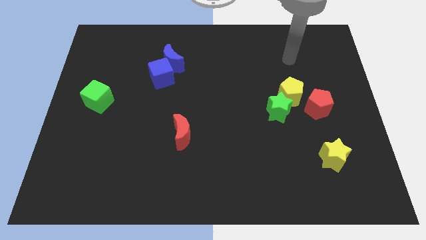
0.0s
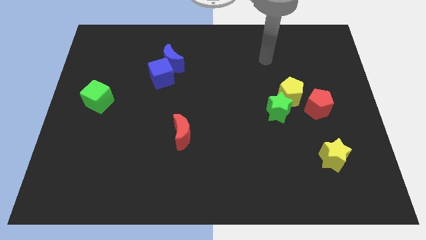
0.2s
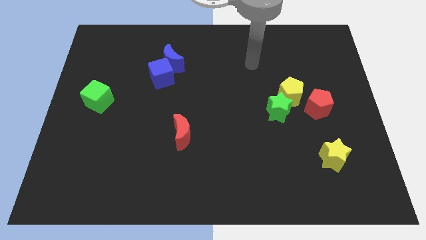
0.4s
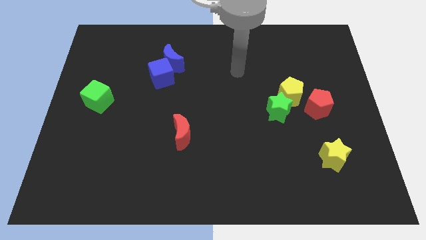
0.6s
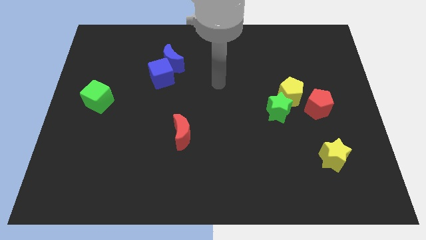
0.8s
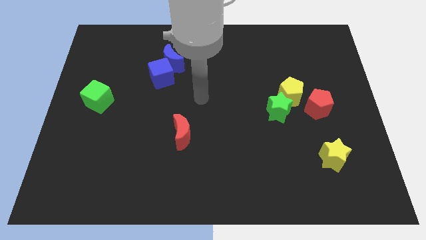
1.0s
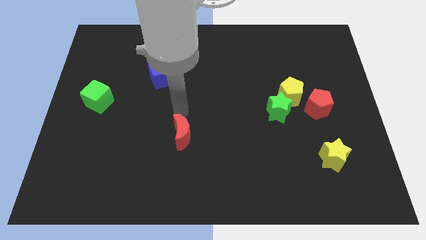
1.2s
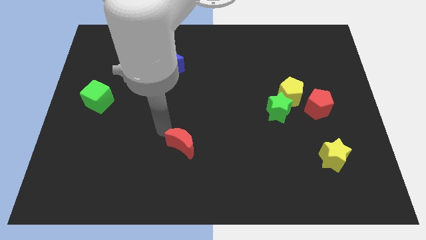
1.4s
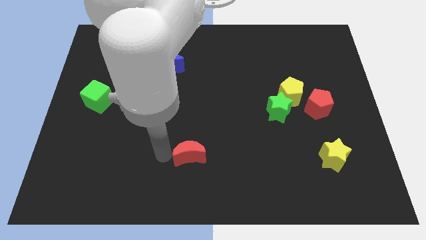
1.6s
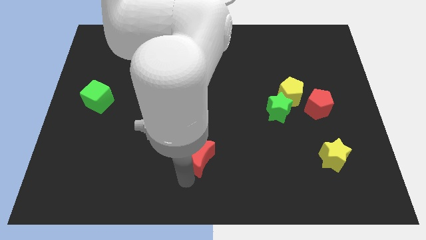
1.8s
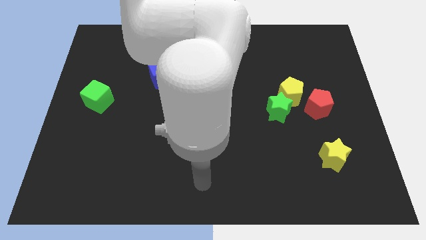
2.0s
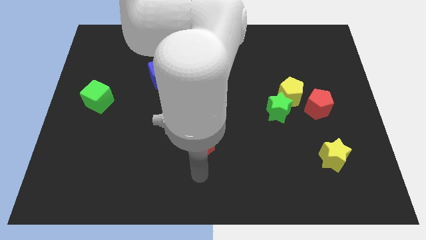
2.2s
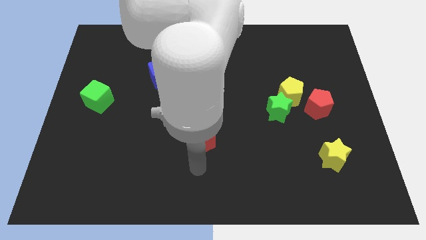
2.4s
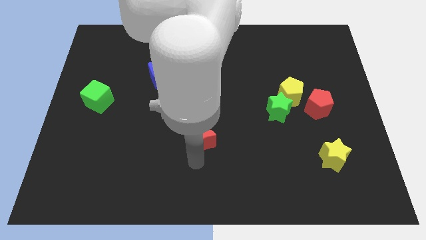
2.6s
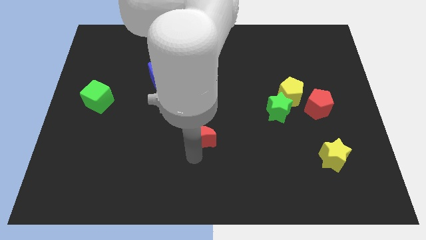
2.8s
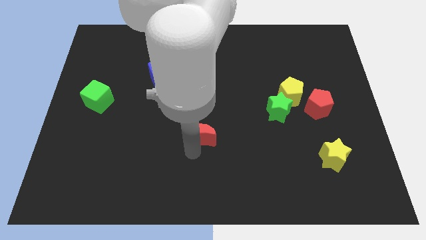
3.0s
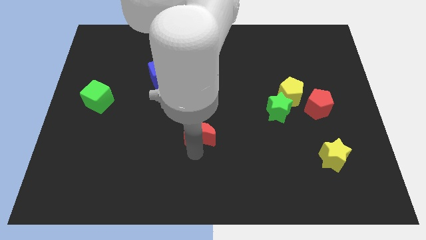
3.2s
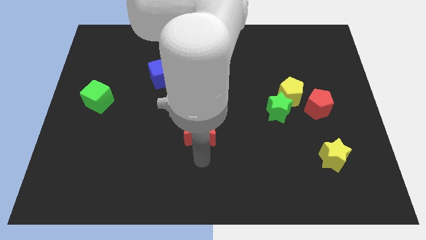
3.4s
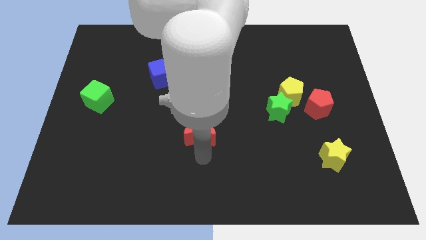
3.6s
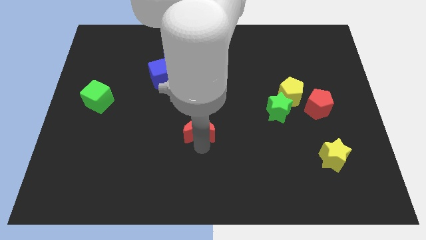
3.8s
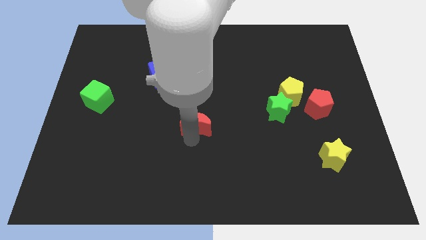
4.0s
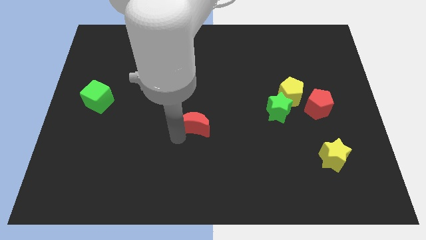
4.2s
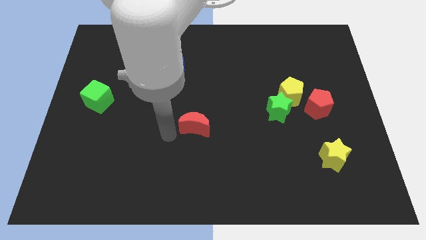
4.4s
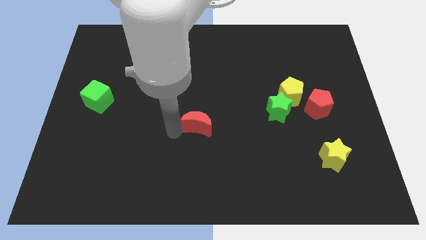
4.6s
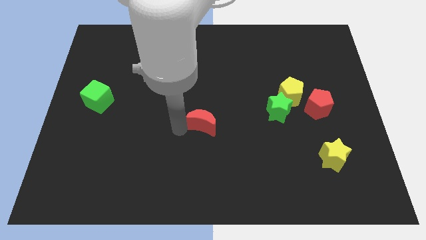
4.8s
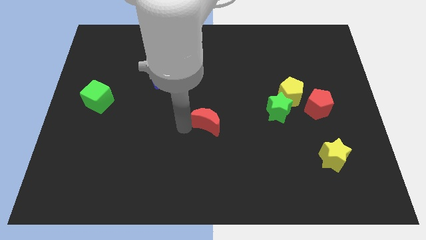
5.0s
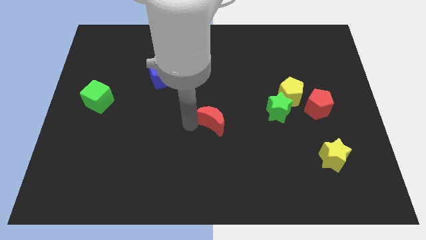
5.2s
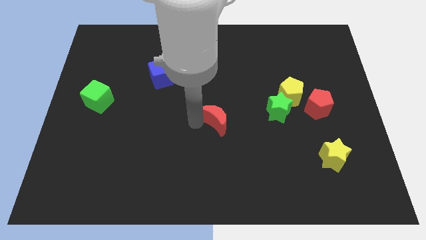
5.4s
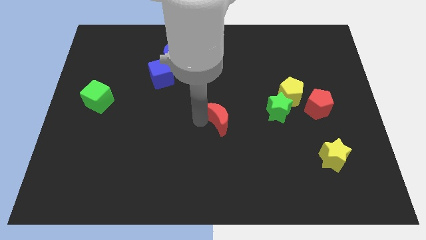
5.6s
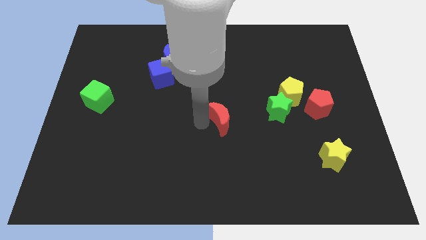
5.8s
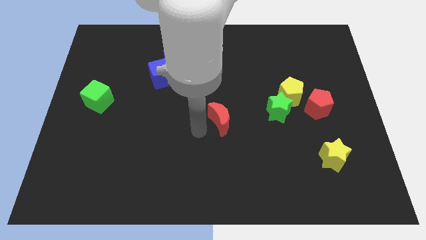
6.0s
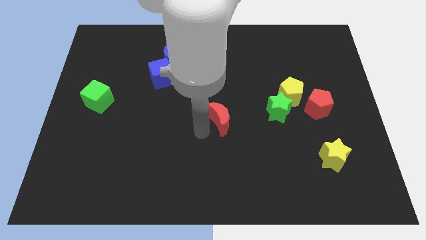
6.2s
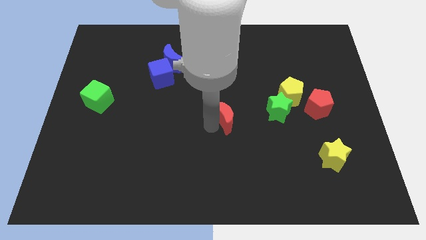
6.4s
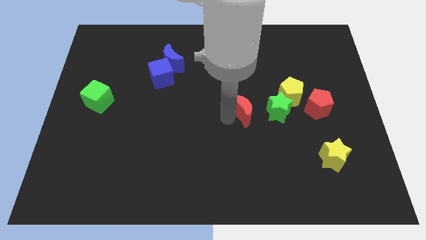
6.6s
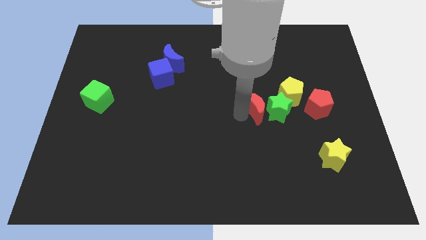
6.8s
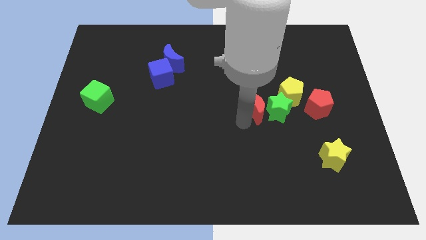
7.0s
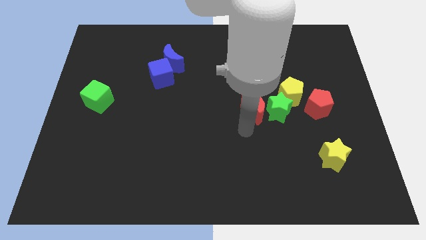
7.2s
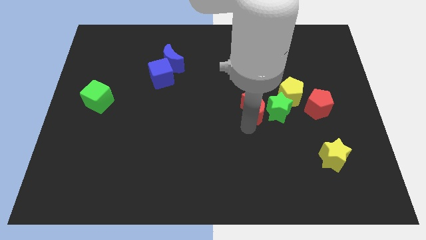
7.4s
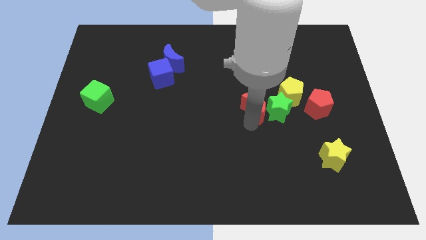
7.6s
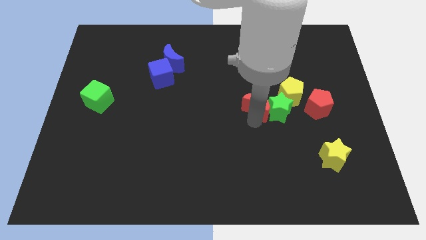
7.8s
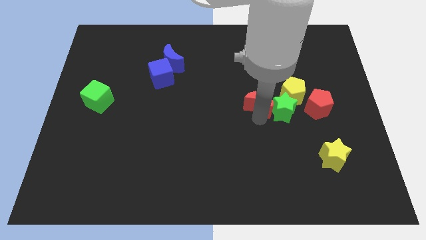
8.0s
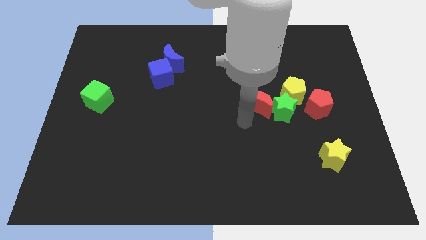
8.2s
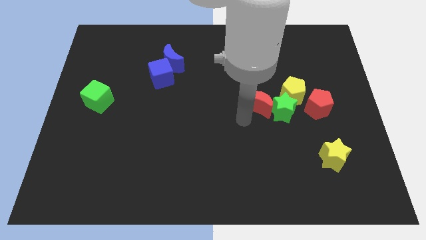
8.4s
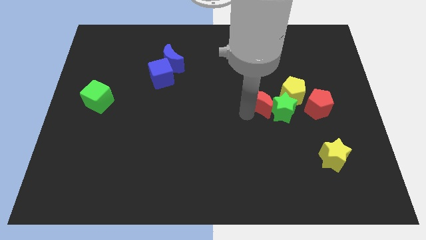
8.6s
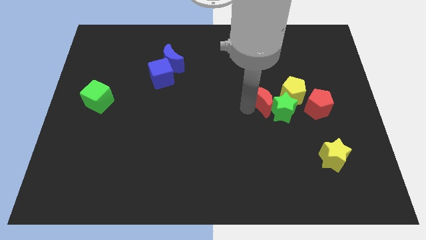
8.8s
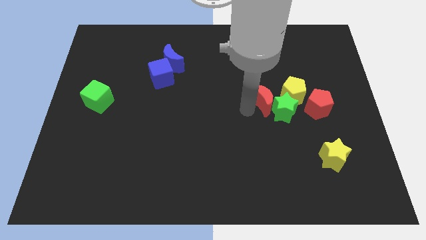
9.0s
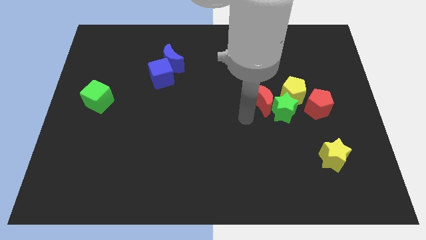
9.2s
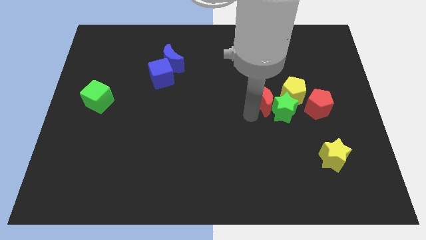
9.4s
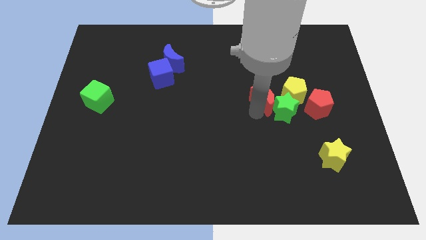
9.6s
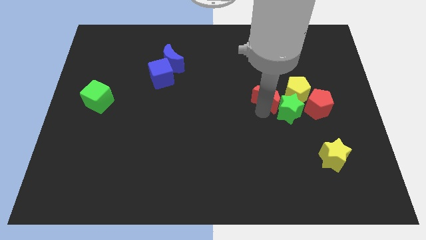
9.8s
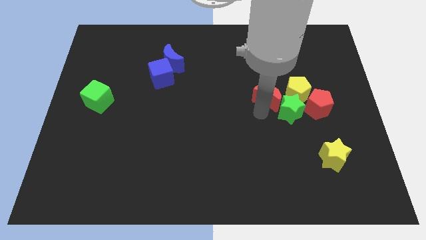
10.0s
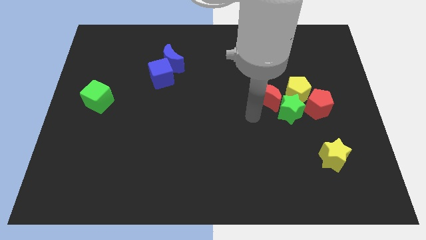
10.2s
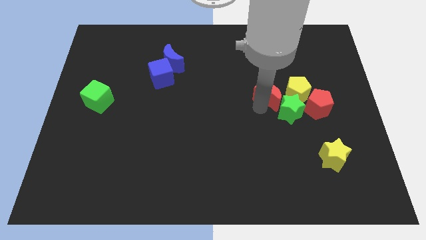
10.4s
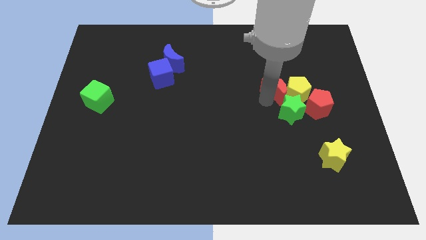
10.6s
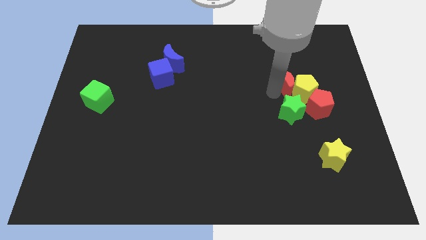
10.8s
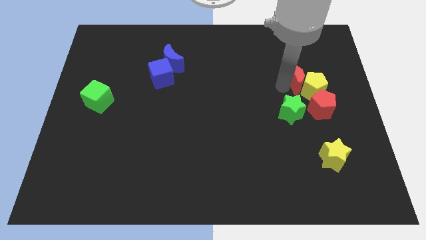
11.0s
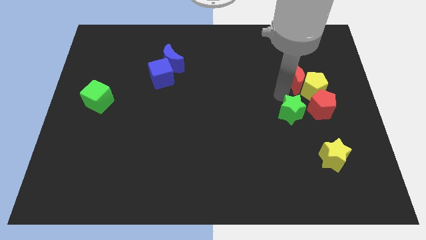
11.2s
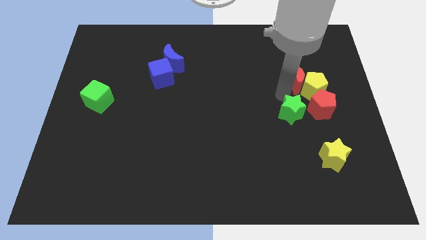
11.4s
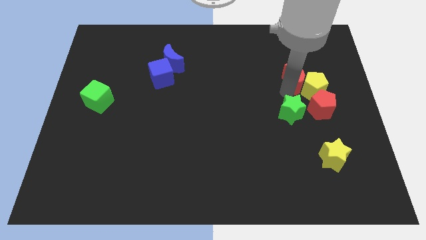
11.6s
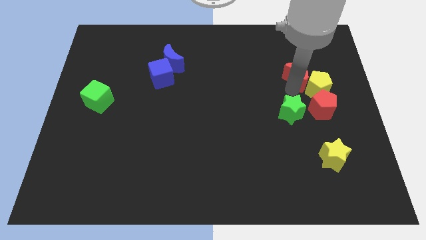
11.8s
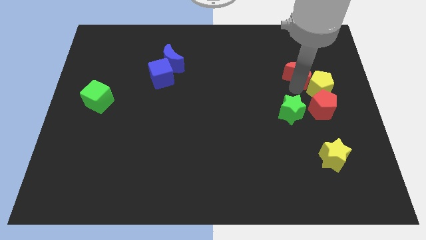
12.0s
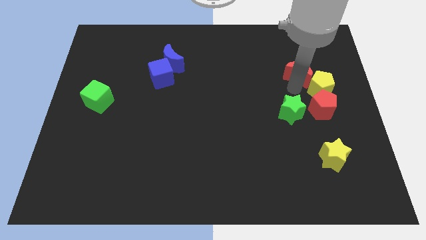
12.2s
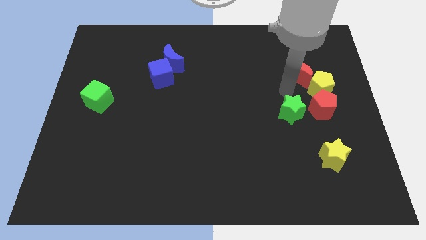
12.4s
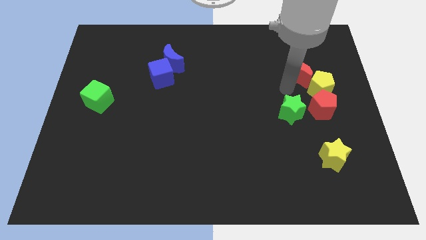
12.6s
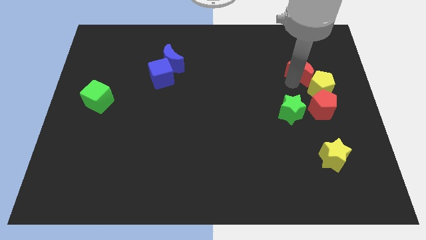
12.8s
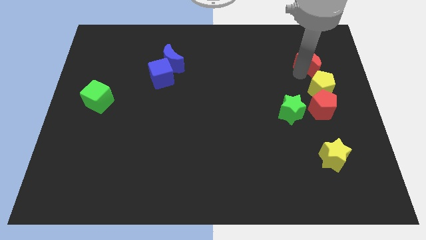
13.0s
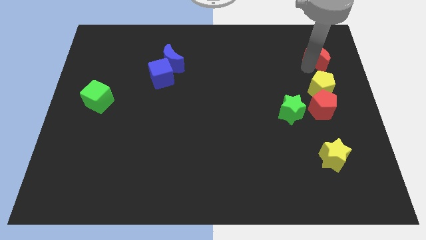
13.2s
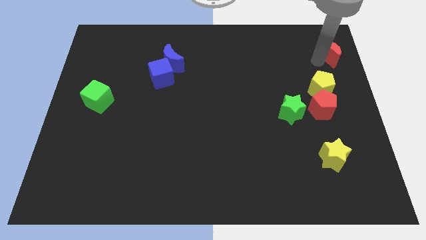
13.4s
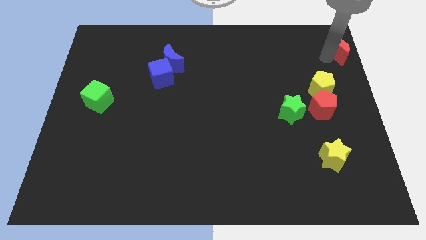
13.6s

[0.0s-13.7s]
move the red moon to the top right corner

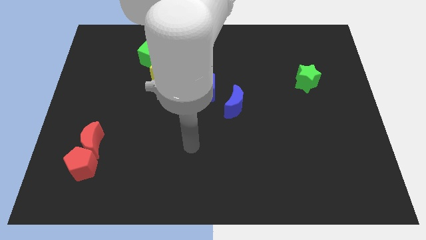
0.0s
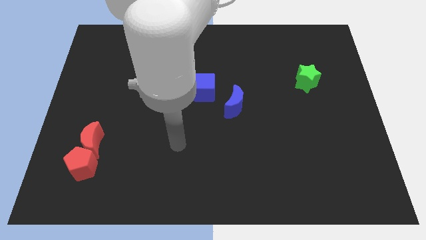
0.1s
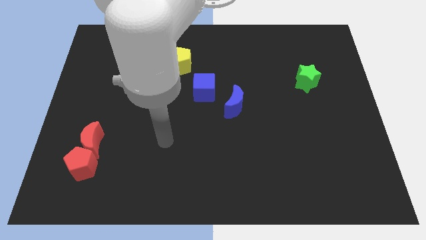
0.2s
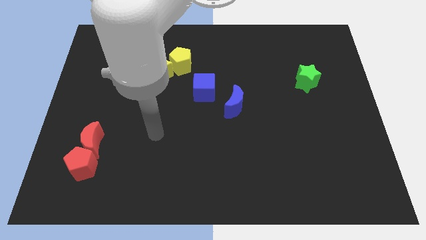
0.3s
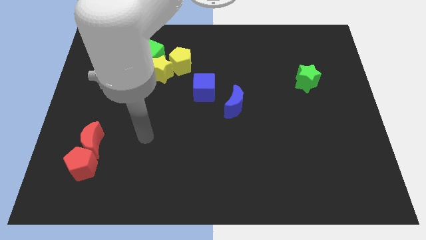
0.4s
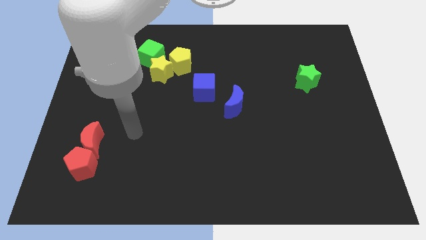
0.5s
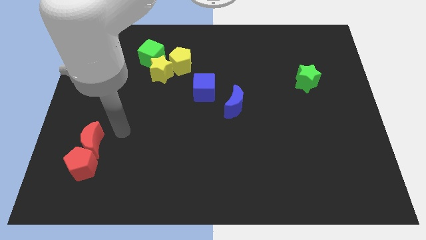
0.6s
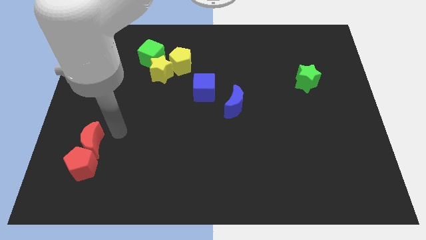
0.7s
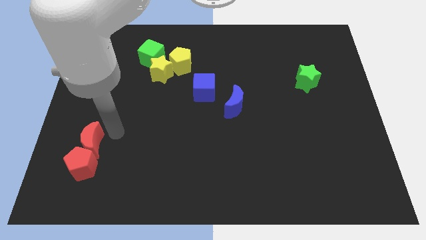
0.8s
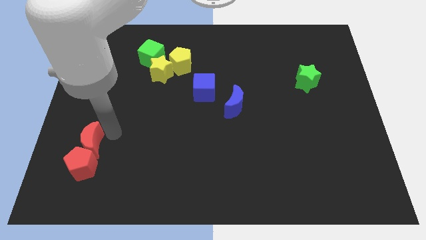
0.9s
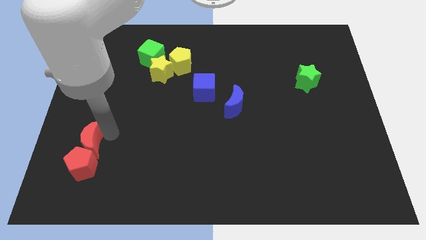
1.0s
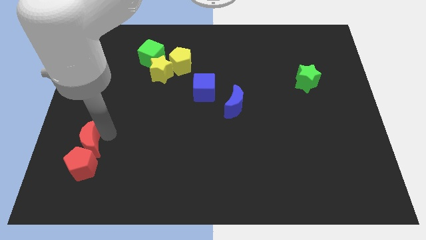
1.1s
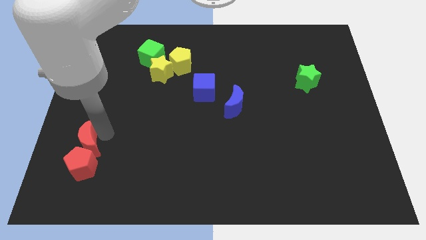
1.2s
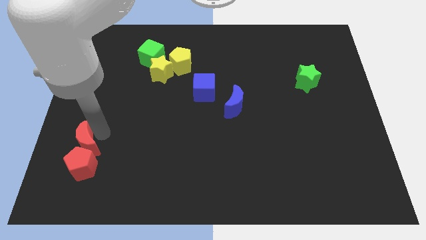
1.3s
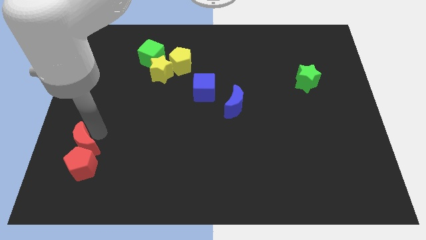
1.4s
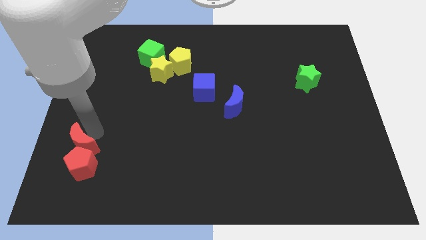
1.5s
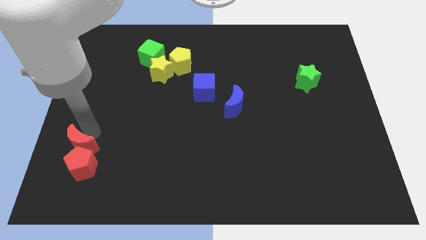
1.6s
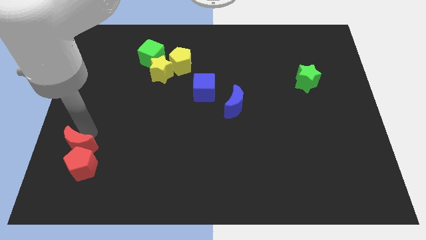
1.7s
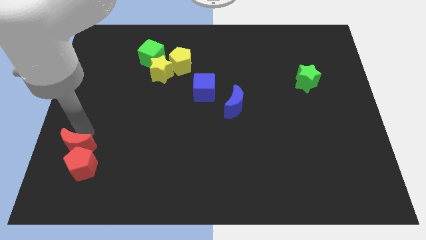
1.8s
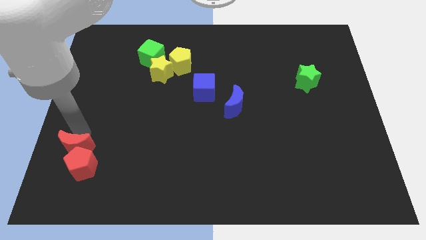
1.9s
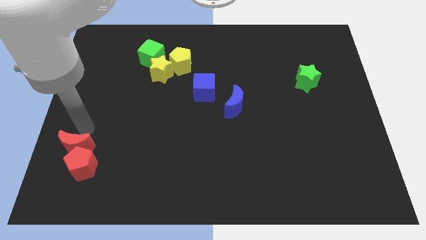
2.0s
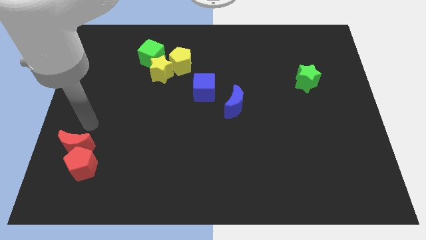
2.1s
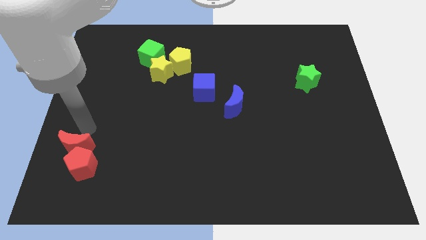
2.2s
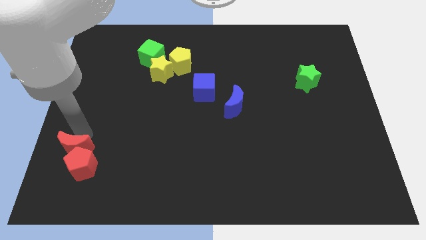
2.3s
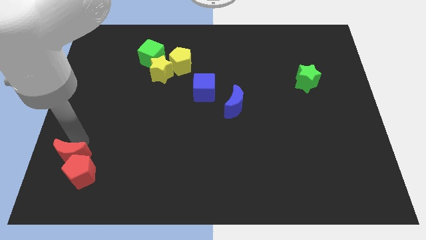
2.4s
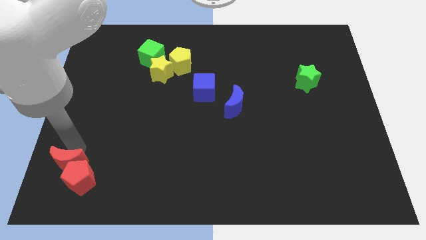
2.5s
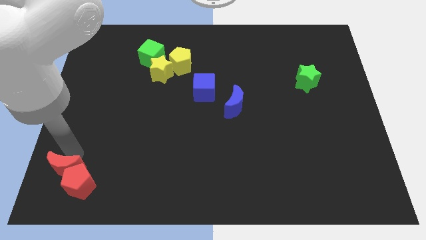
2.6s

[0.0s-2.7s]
put the red moon to the lower left corner
